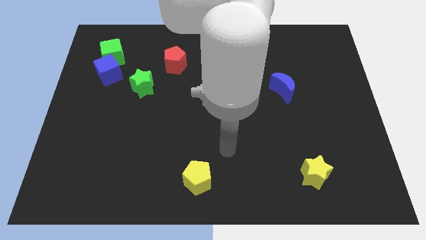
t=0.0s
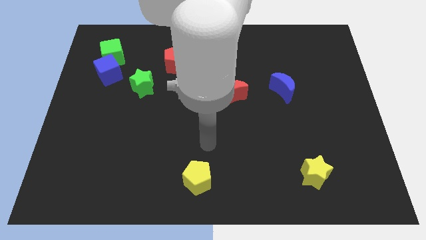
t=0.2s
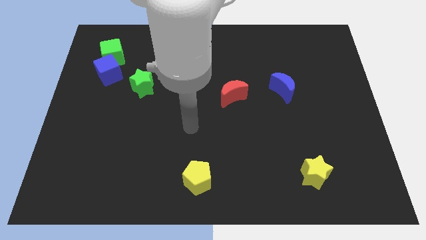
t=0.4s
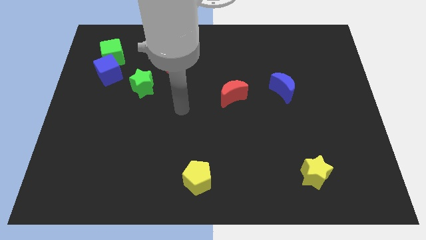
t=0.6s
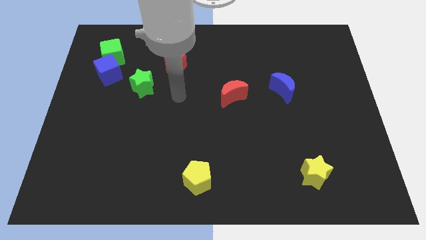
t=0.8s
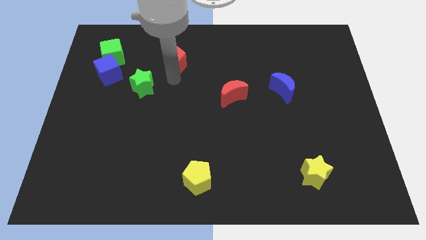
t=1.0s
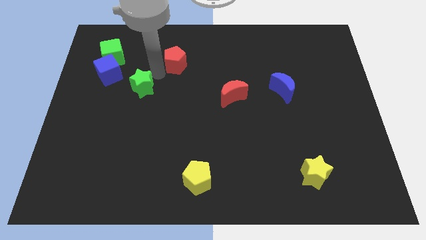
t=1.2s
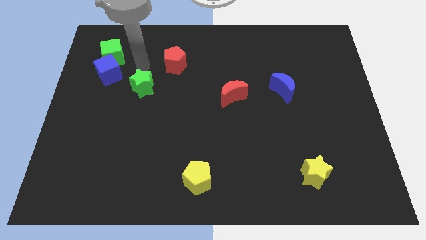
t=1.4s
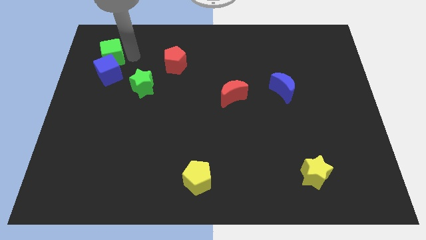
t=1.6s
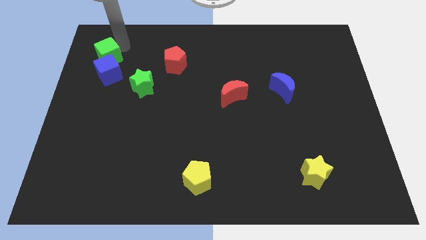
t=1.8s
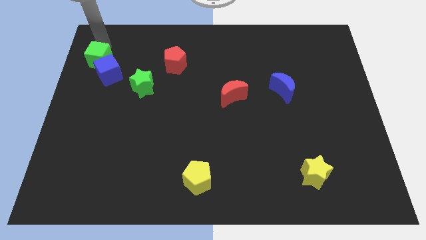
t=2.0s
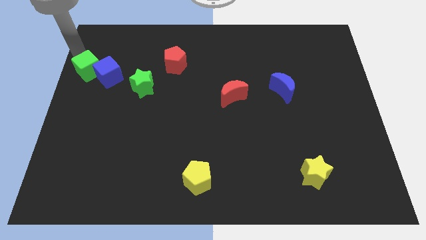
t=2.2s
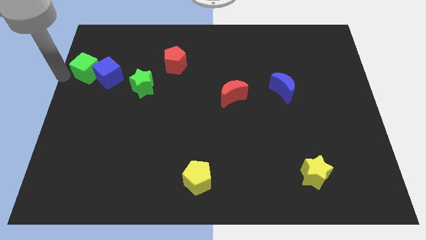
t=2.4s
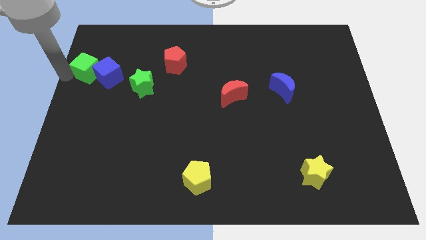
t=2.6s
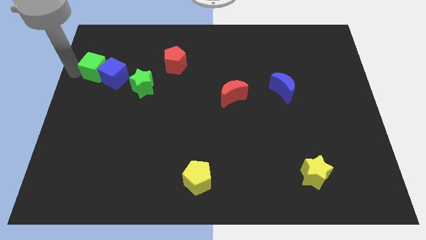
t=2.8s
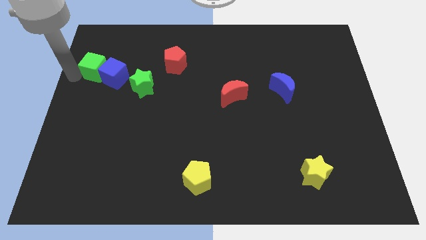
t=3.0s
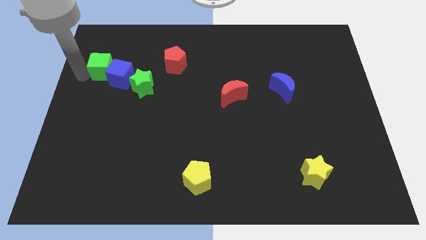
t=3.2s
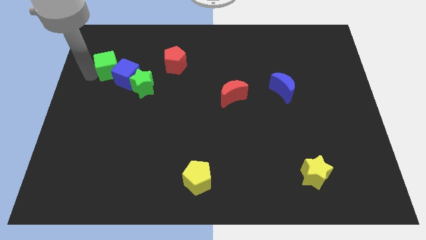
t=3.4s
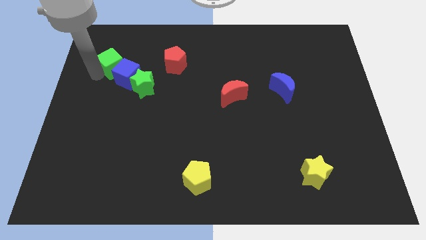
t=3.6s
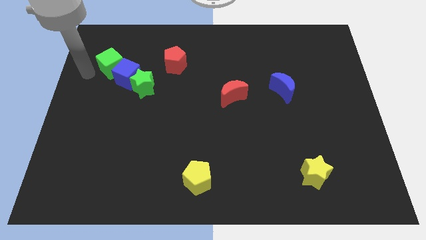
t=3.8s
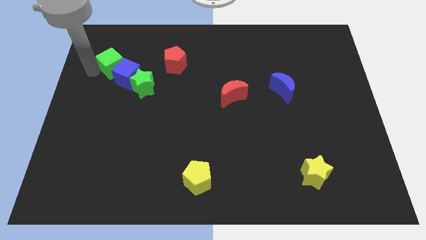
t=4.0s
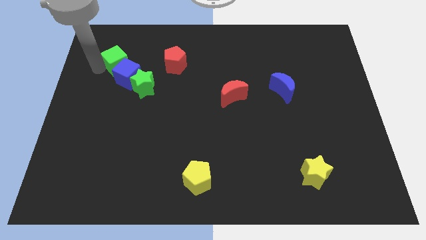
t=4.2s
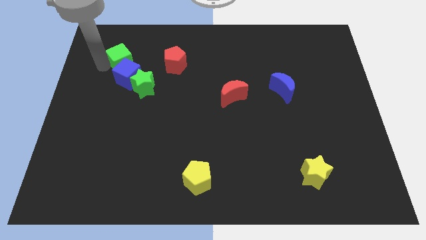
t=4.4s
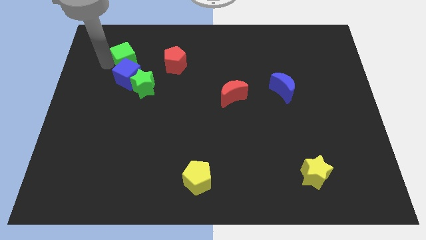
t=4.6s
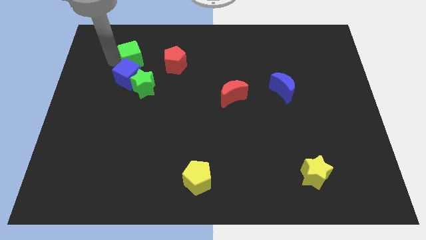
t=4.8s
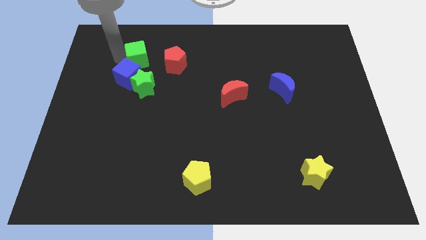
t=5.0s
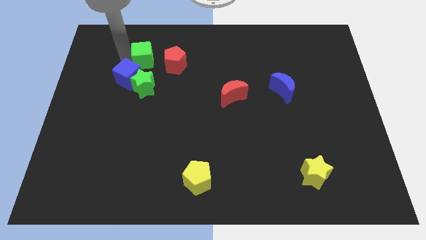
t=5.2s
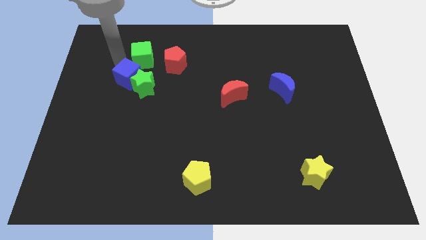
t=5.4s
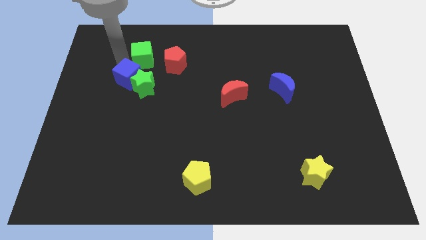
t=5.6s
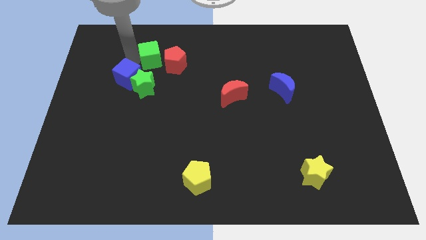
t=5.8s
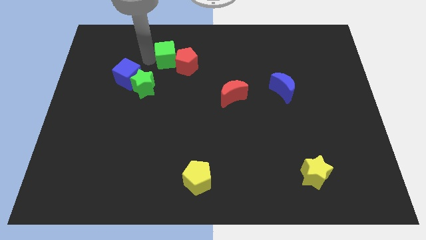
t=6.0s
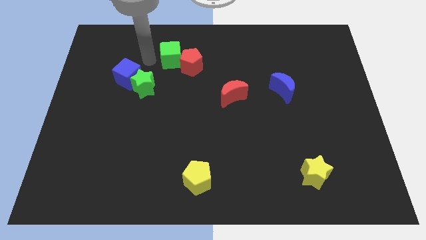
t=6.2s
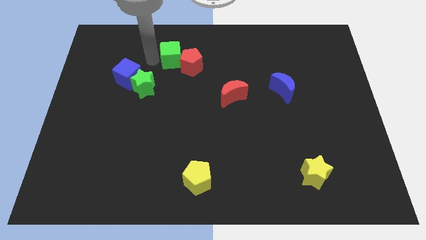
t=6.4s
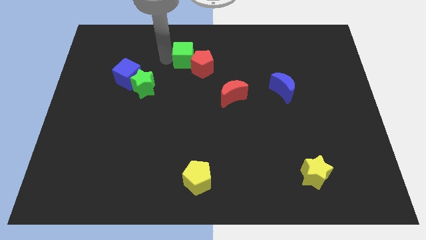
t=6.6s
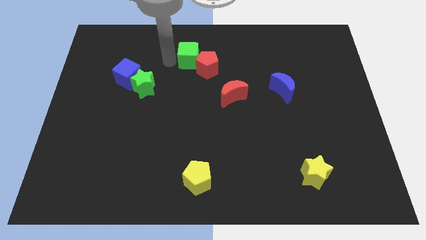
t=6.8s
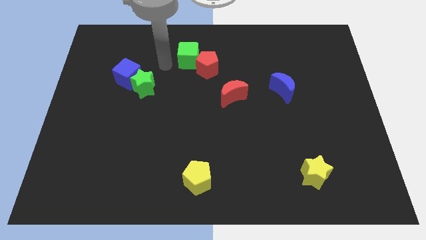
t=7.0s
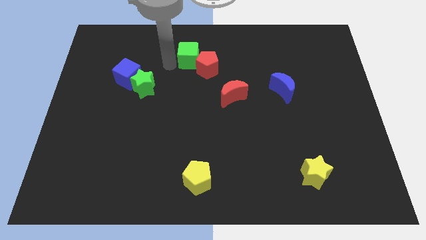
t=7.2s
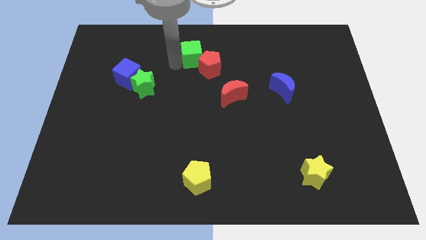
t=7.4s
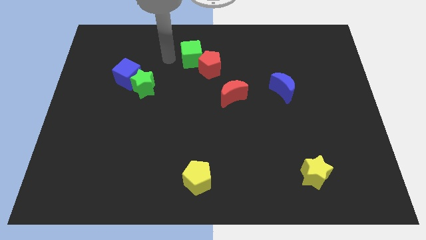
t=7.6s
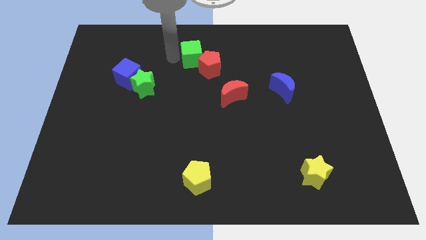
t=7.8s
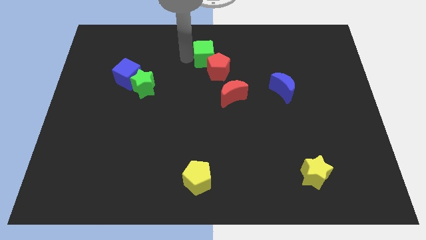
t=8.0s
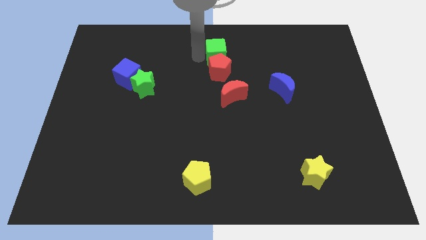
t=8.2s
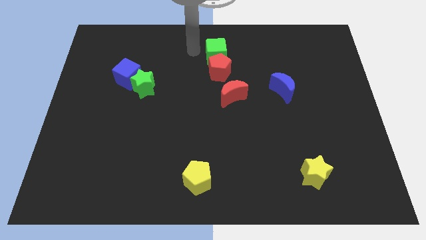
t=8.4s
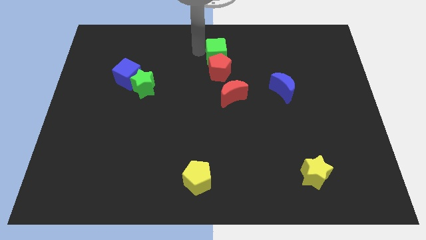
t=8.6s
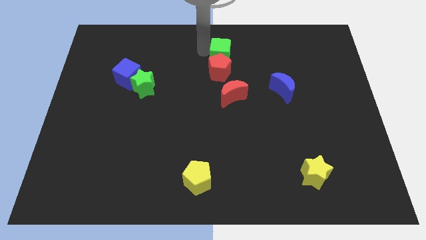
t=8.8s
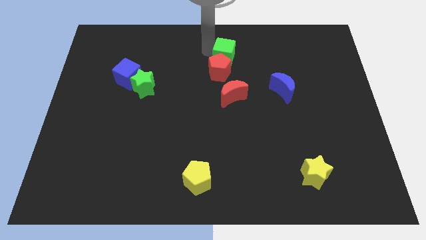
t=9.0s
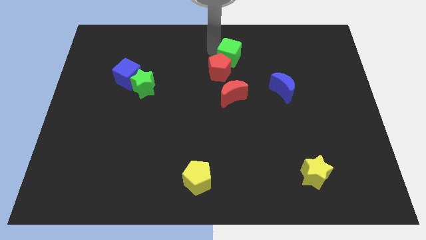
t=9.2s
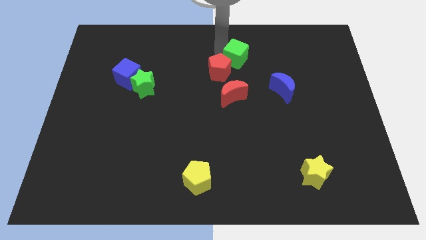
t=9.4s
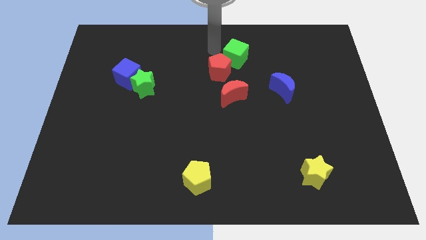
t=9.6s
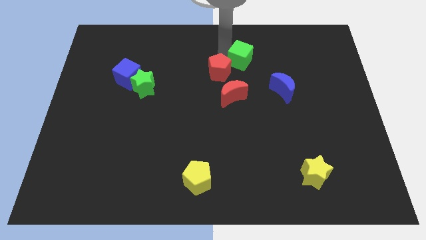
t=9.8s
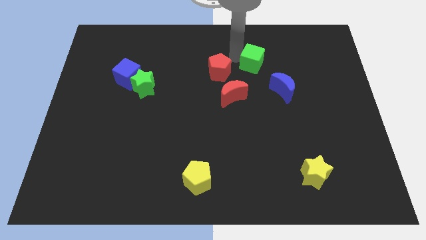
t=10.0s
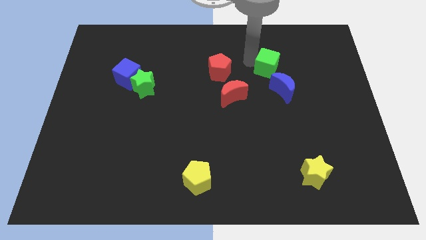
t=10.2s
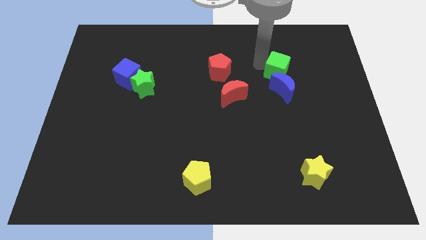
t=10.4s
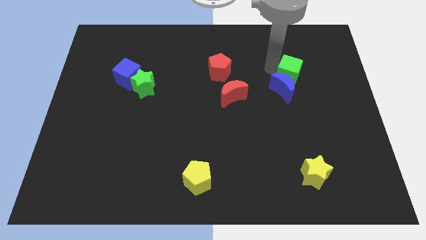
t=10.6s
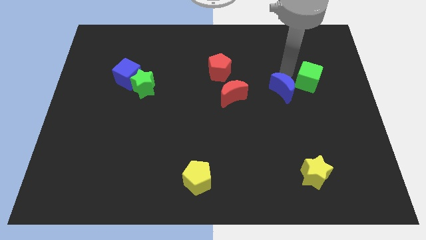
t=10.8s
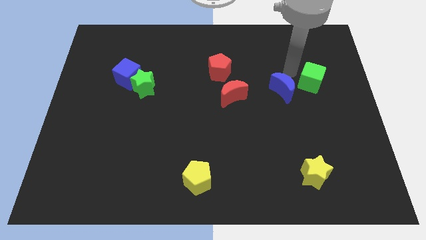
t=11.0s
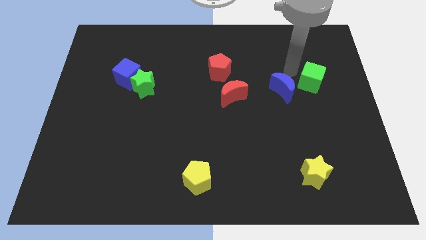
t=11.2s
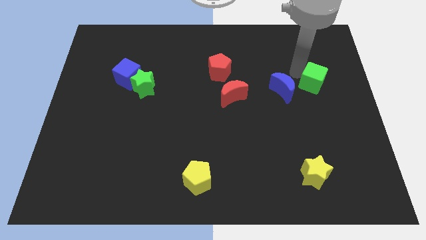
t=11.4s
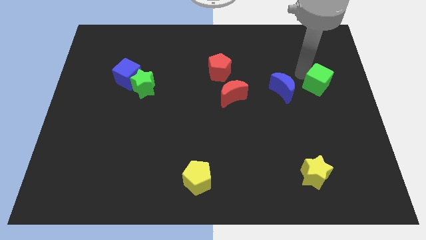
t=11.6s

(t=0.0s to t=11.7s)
push the green cube to the right side of the board
